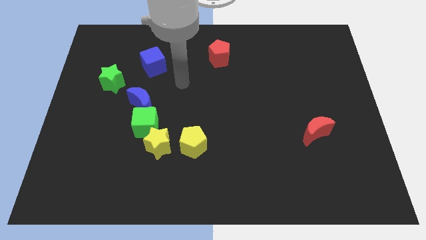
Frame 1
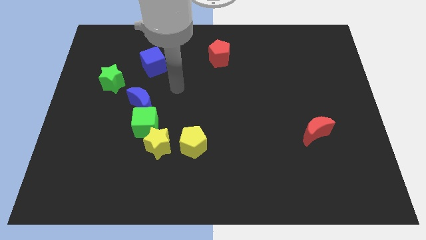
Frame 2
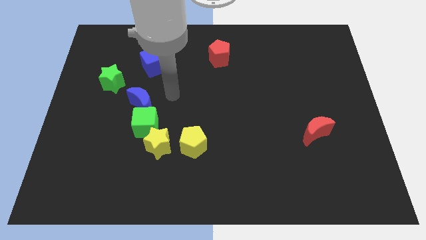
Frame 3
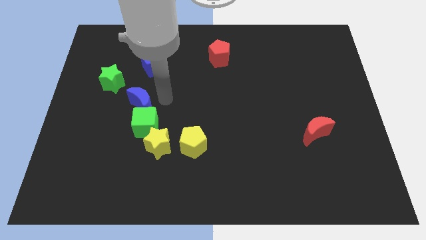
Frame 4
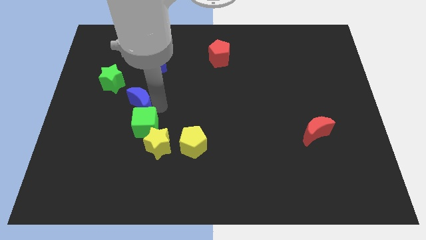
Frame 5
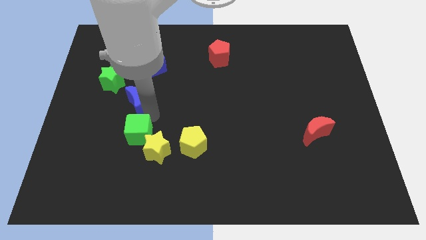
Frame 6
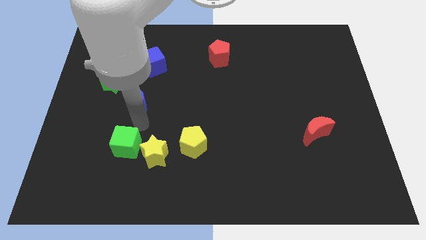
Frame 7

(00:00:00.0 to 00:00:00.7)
move the blue moon away from the green cube

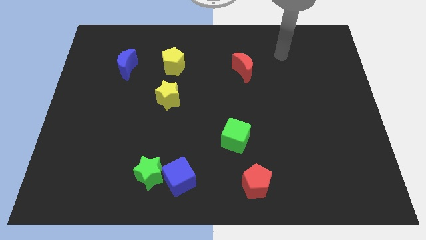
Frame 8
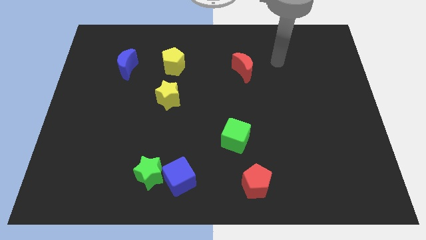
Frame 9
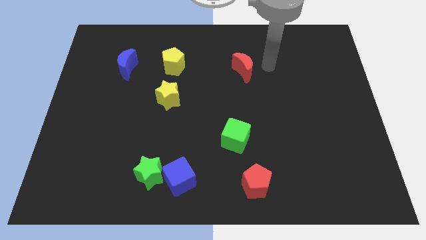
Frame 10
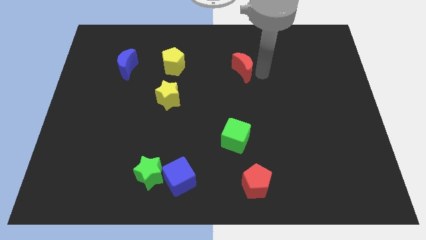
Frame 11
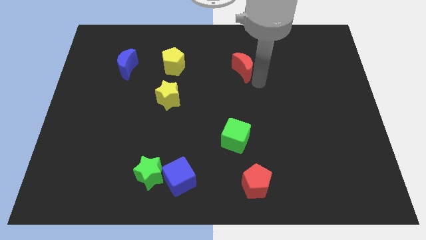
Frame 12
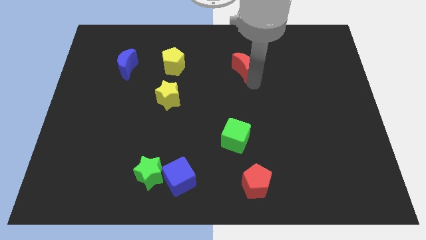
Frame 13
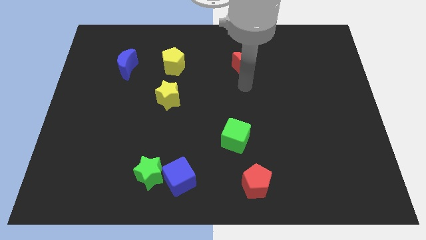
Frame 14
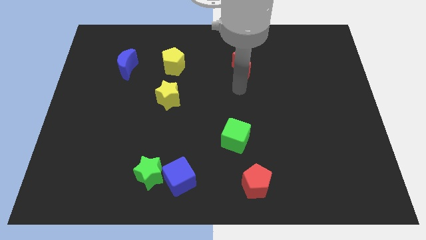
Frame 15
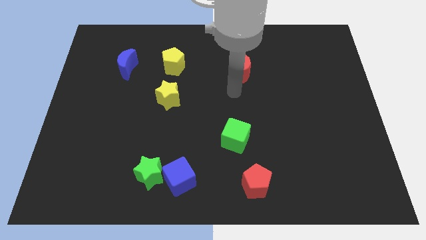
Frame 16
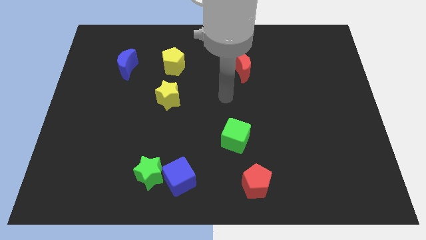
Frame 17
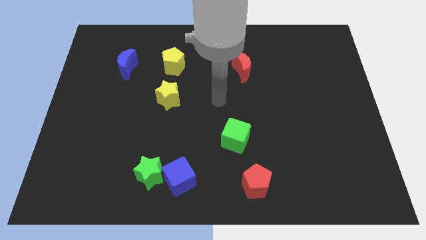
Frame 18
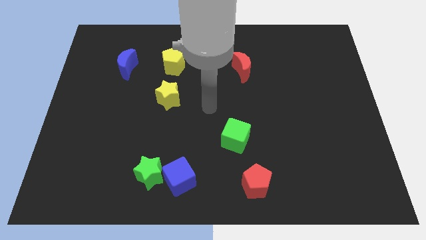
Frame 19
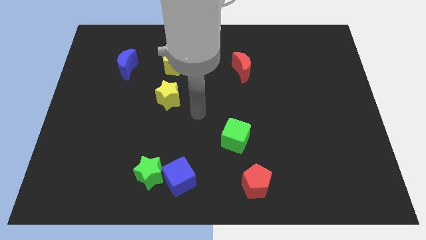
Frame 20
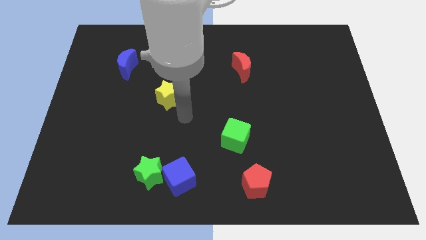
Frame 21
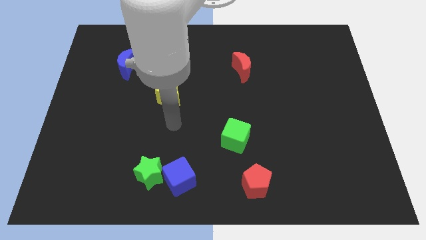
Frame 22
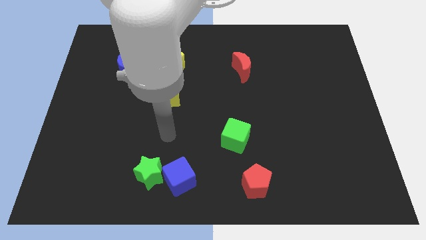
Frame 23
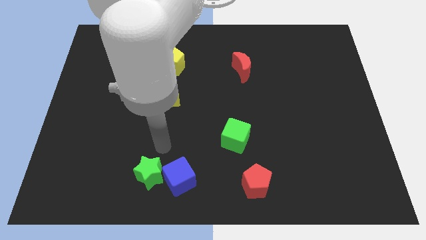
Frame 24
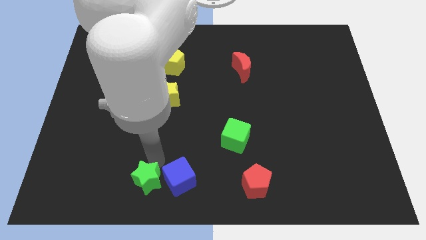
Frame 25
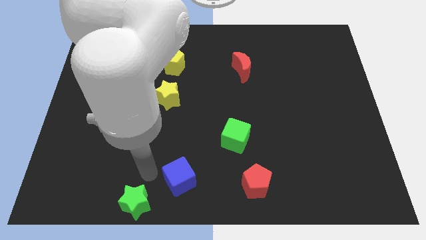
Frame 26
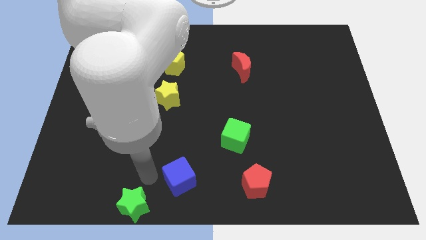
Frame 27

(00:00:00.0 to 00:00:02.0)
move the blue cube away from the green star

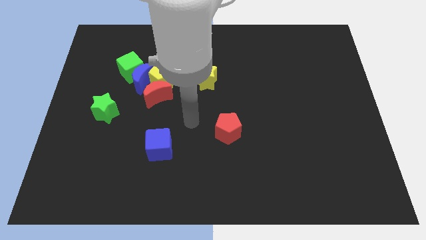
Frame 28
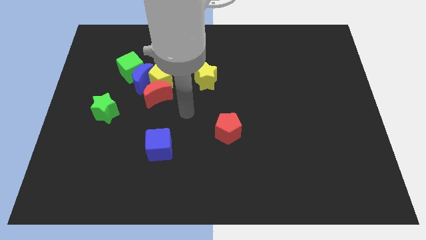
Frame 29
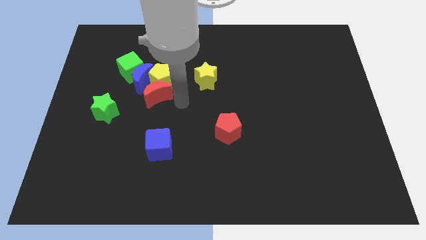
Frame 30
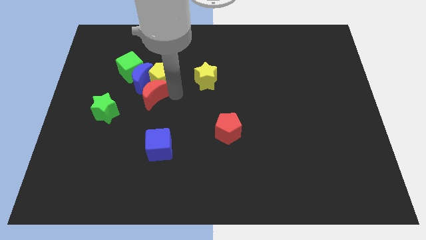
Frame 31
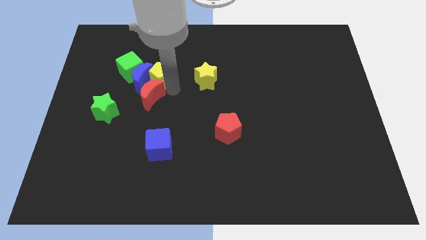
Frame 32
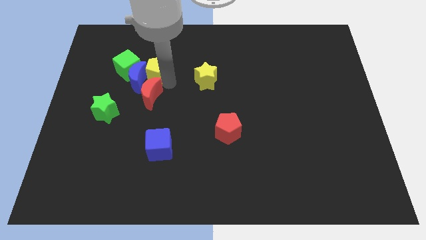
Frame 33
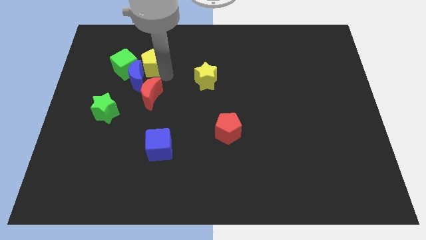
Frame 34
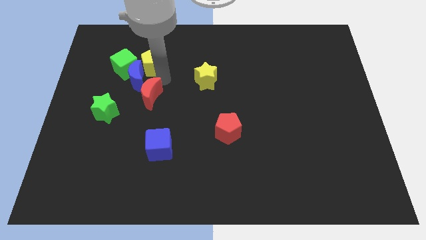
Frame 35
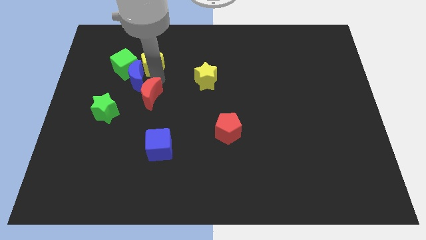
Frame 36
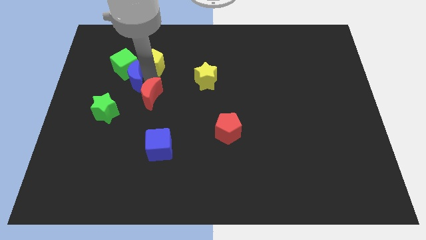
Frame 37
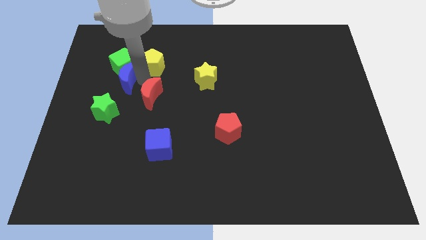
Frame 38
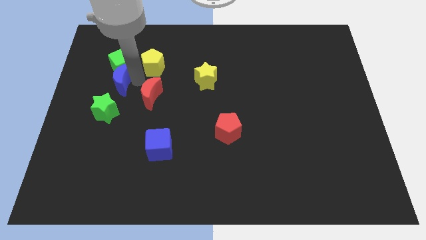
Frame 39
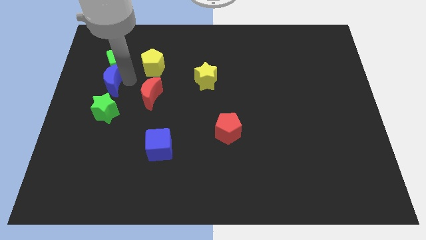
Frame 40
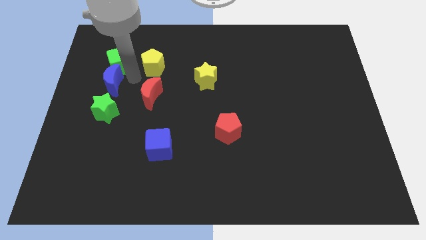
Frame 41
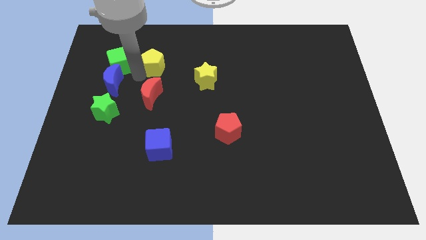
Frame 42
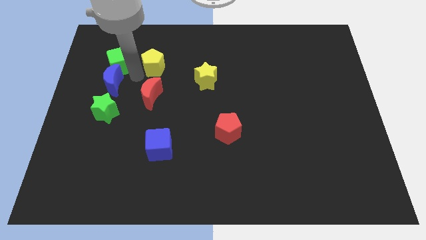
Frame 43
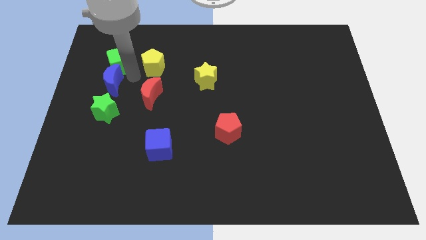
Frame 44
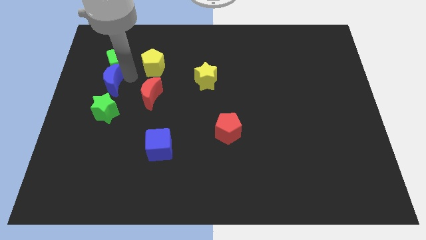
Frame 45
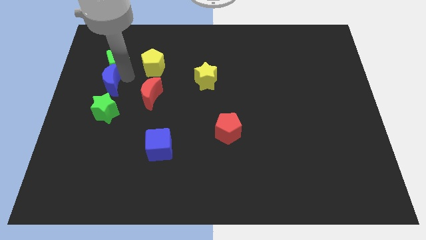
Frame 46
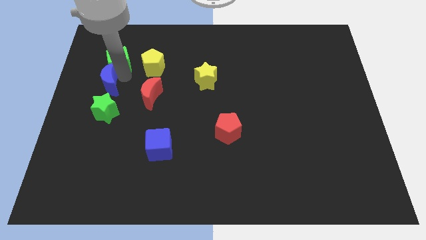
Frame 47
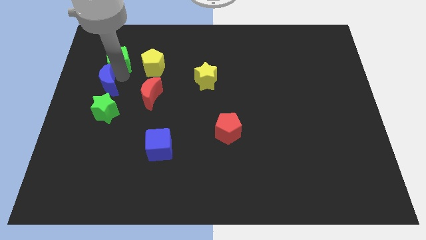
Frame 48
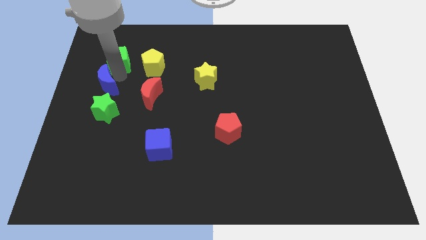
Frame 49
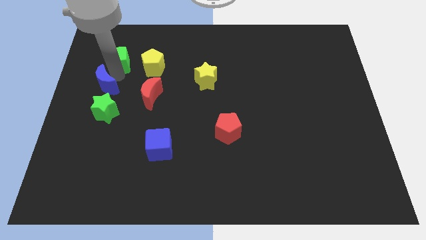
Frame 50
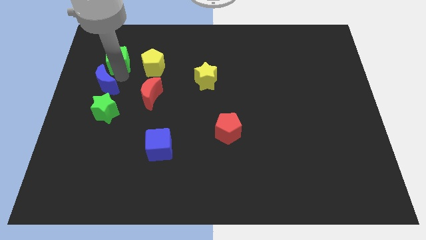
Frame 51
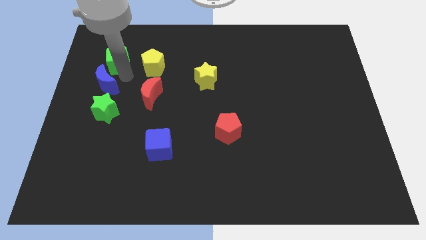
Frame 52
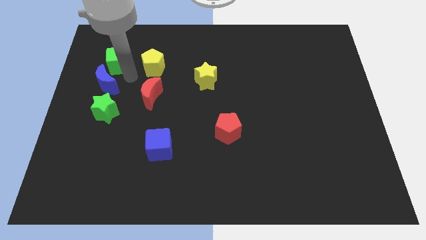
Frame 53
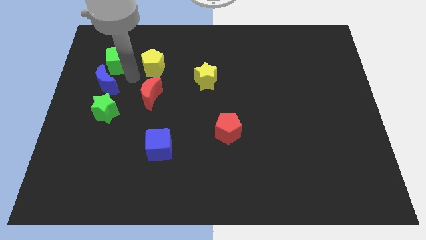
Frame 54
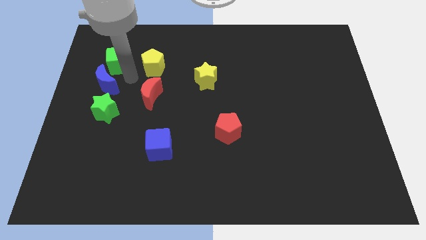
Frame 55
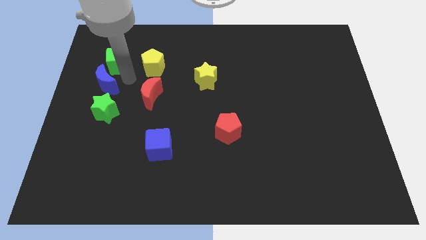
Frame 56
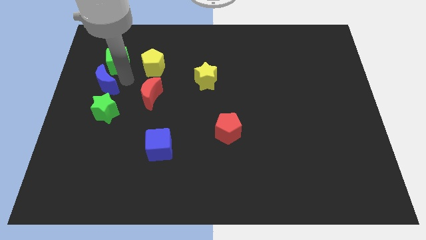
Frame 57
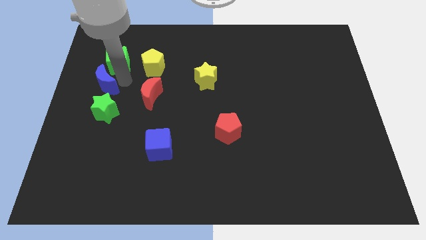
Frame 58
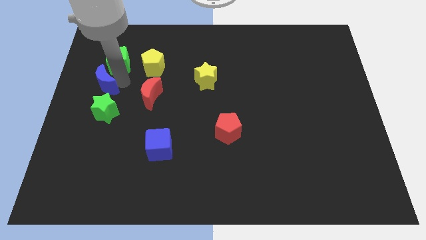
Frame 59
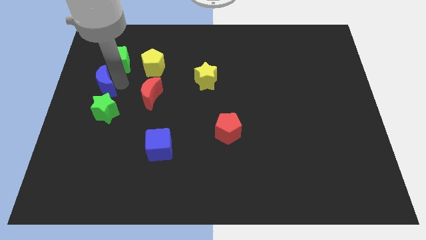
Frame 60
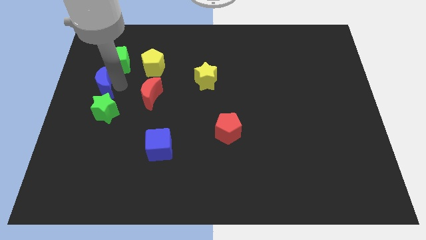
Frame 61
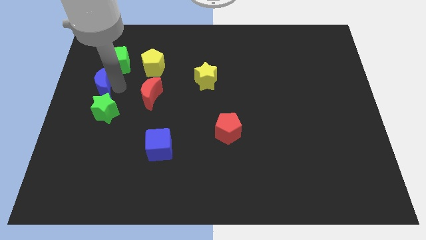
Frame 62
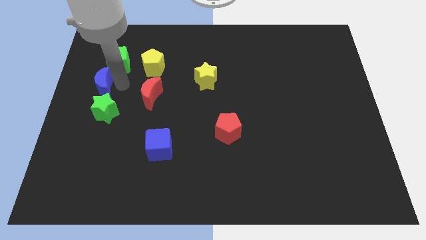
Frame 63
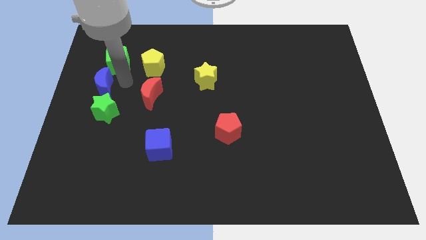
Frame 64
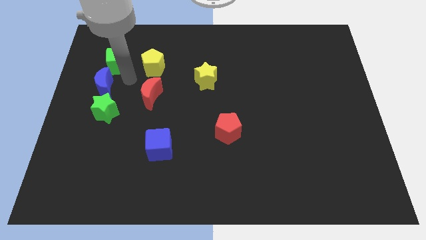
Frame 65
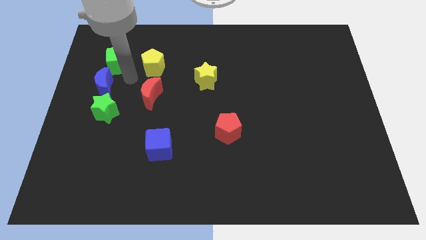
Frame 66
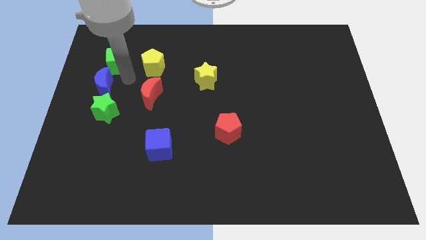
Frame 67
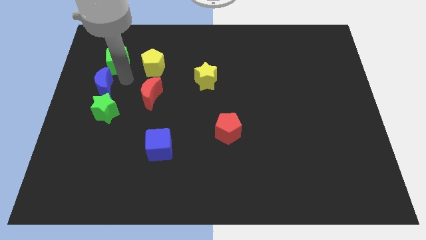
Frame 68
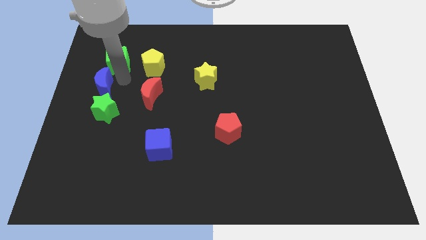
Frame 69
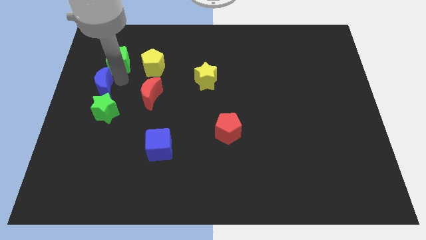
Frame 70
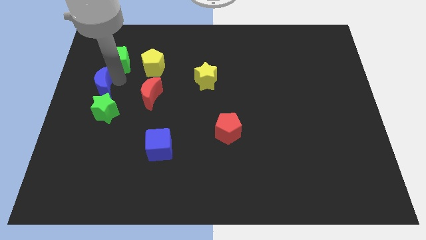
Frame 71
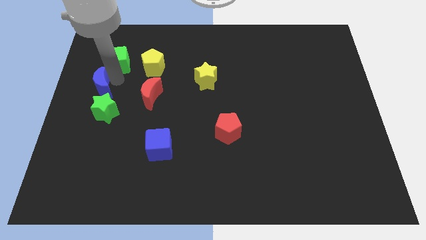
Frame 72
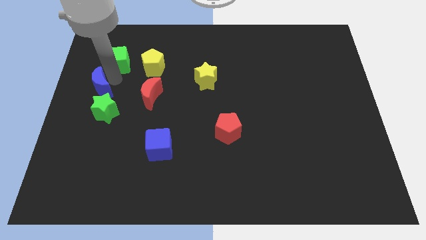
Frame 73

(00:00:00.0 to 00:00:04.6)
separate the blue moon from the group

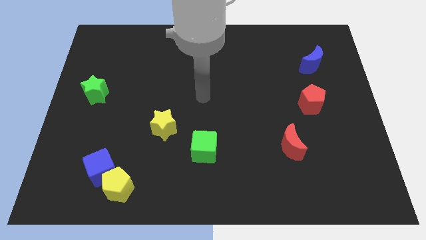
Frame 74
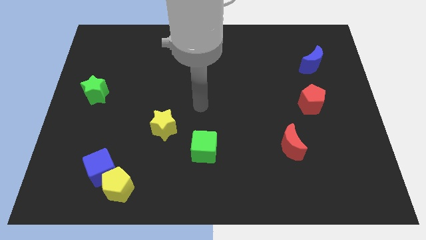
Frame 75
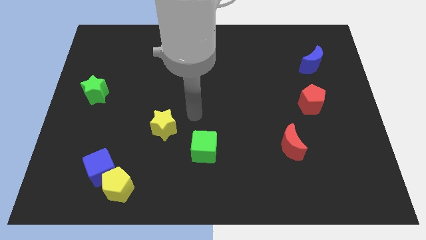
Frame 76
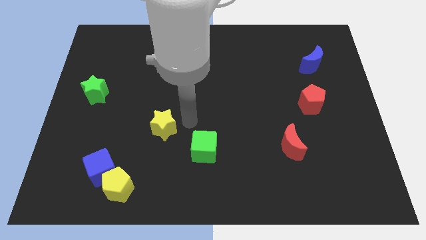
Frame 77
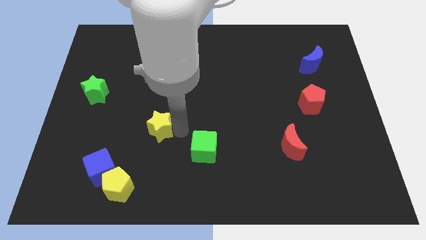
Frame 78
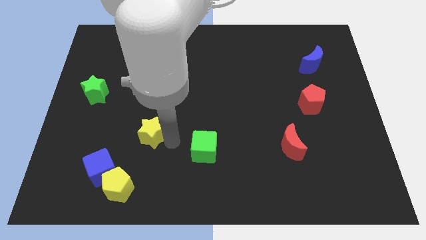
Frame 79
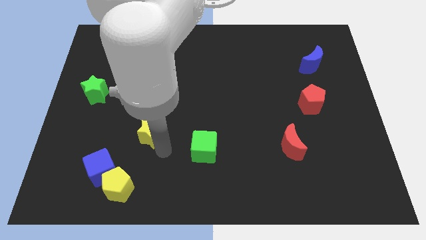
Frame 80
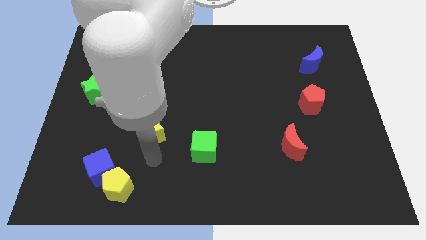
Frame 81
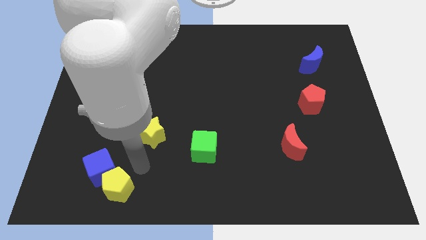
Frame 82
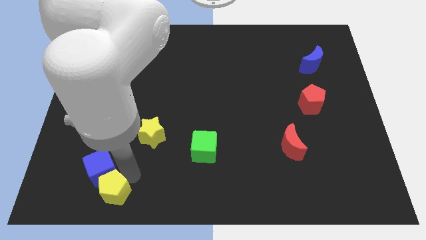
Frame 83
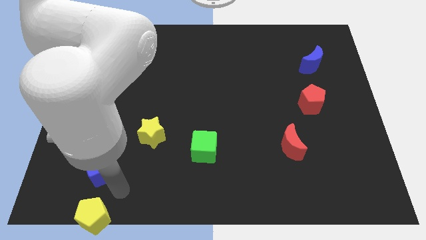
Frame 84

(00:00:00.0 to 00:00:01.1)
move the blue cube away from the yellow pentagon

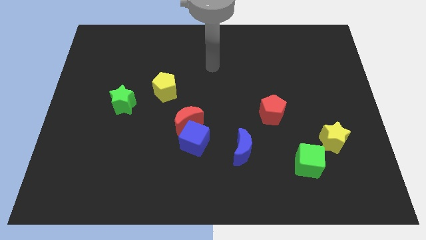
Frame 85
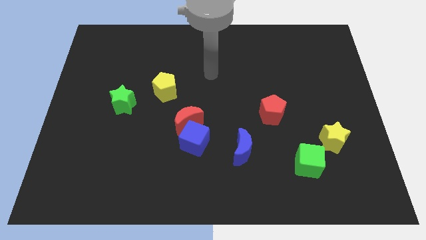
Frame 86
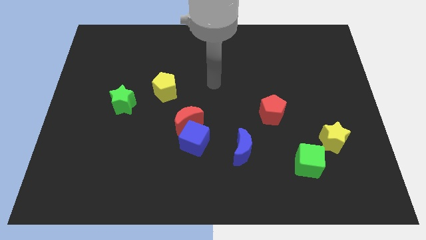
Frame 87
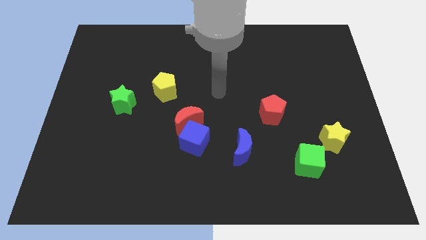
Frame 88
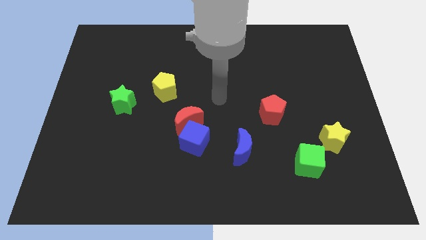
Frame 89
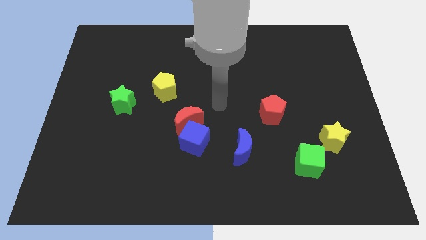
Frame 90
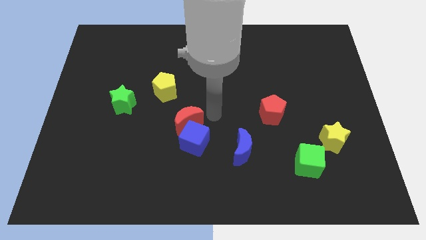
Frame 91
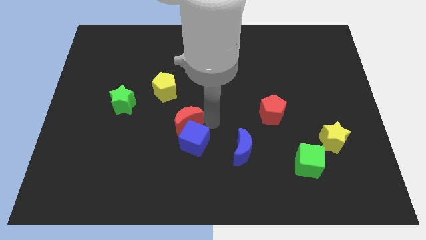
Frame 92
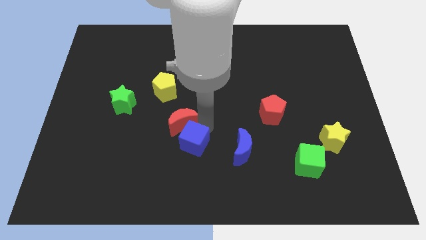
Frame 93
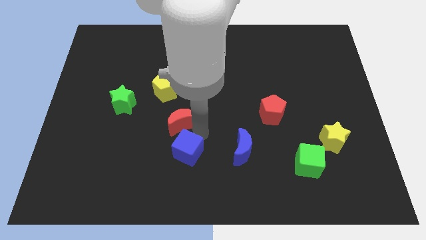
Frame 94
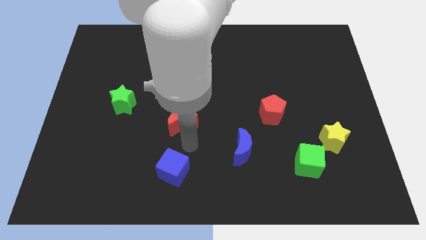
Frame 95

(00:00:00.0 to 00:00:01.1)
move the red moon away from the blue cube
